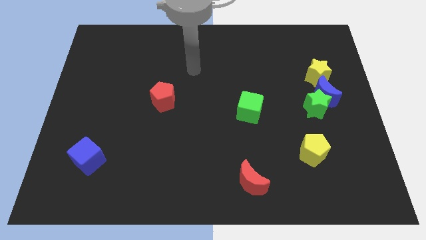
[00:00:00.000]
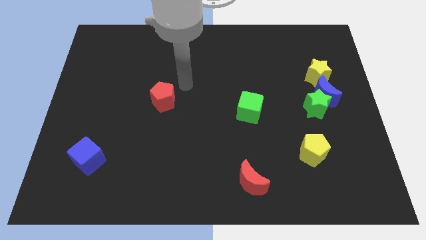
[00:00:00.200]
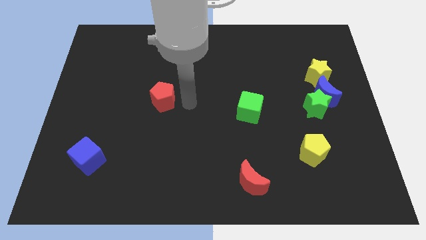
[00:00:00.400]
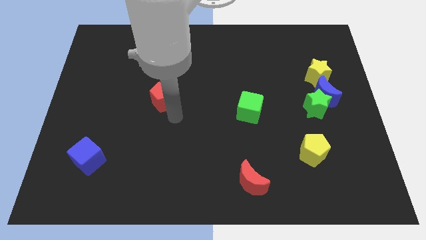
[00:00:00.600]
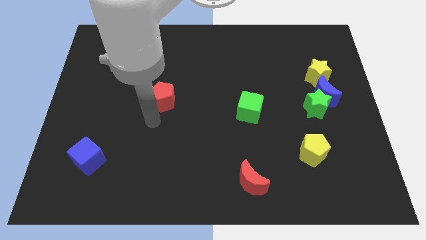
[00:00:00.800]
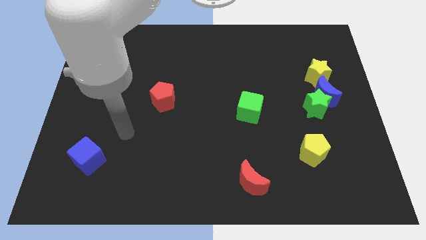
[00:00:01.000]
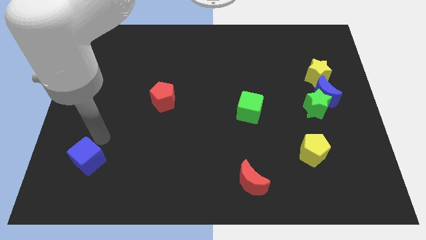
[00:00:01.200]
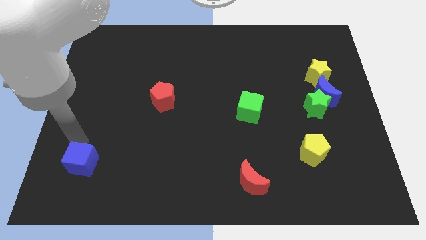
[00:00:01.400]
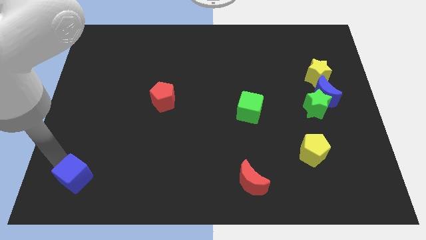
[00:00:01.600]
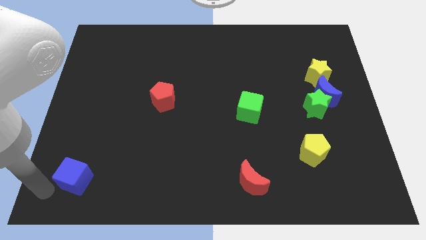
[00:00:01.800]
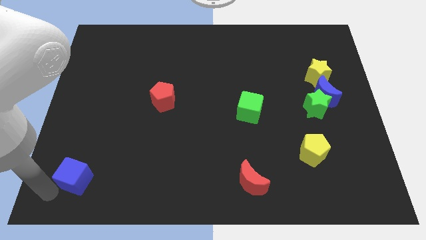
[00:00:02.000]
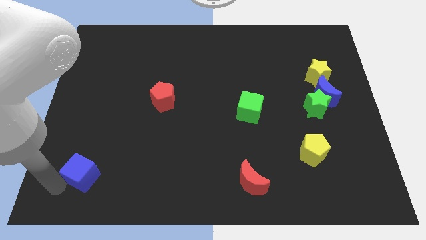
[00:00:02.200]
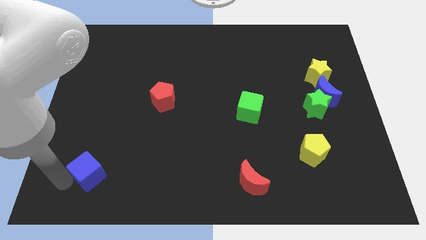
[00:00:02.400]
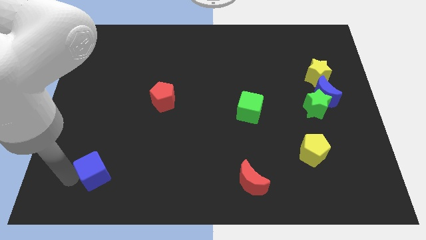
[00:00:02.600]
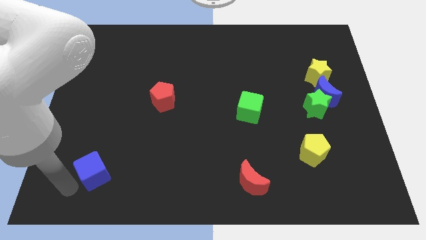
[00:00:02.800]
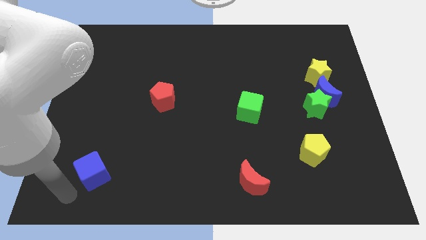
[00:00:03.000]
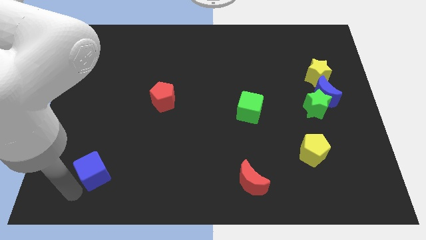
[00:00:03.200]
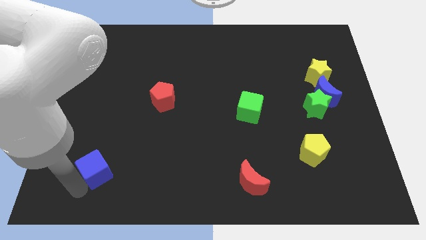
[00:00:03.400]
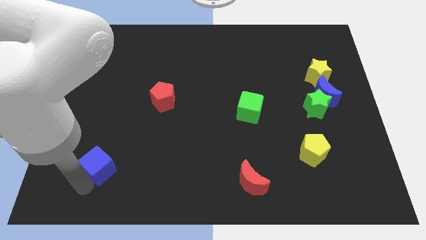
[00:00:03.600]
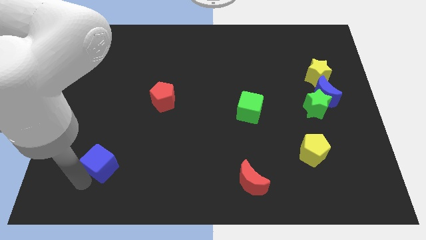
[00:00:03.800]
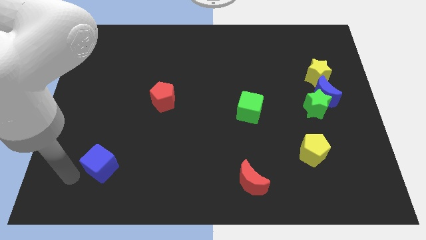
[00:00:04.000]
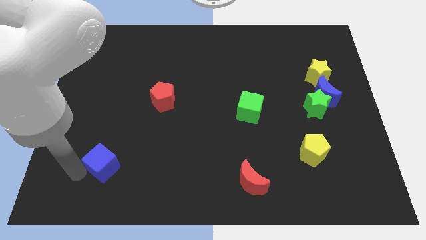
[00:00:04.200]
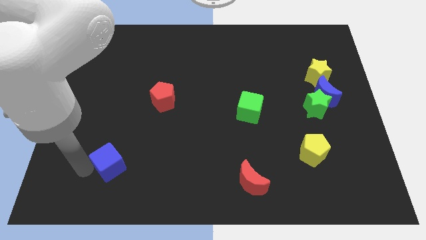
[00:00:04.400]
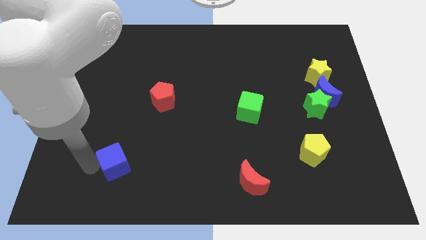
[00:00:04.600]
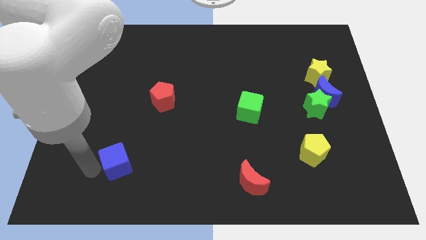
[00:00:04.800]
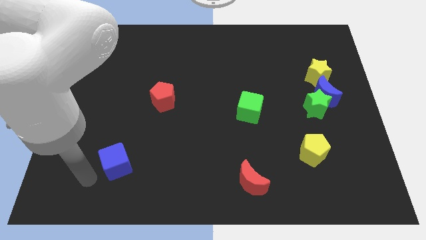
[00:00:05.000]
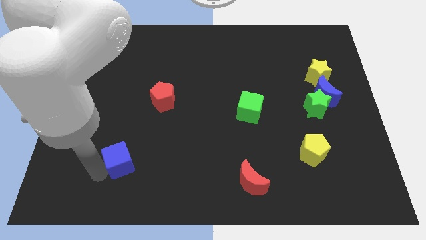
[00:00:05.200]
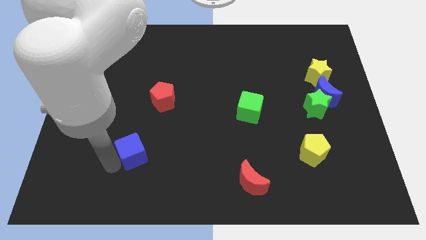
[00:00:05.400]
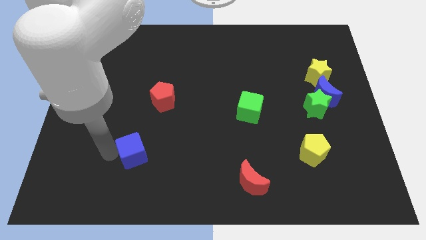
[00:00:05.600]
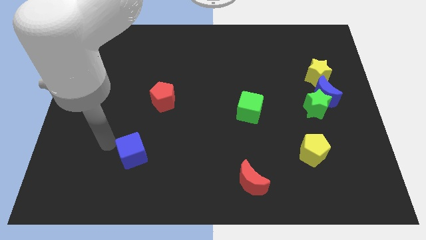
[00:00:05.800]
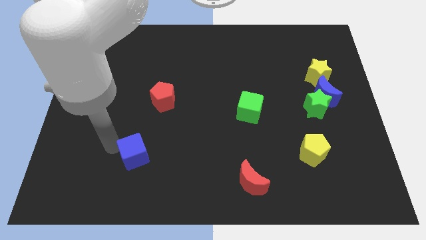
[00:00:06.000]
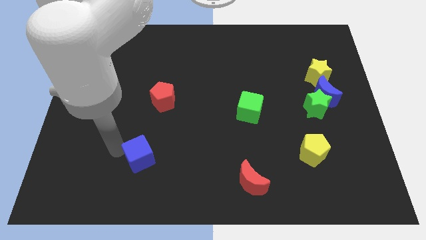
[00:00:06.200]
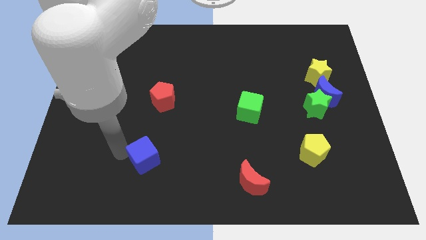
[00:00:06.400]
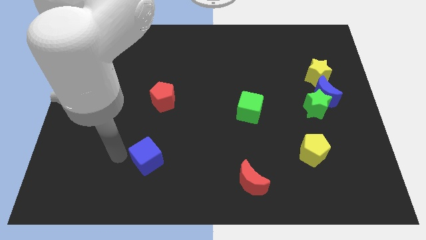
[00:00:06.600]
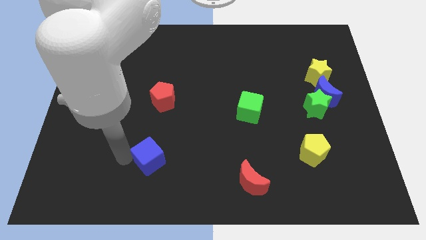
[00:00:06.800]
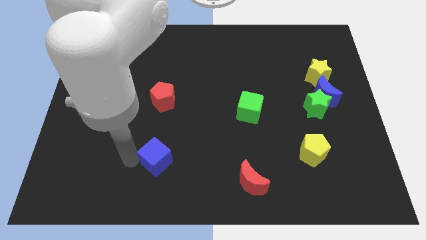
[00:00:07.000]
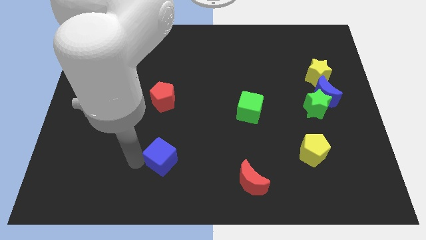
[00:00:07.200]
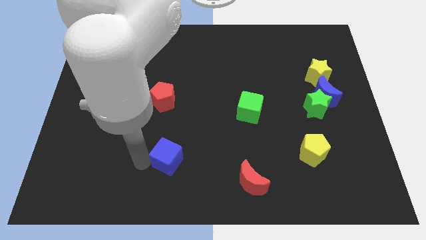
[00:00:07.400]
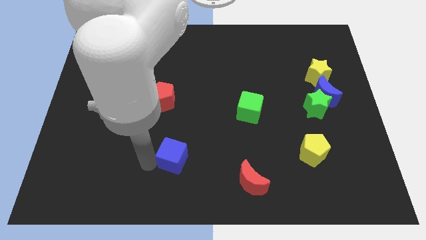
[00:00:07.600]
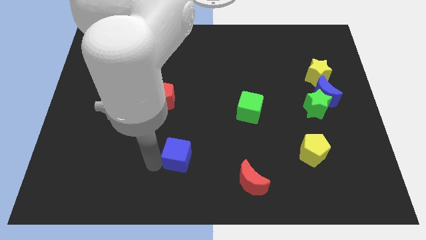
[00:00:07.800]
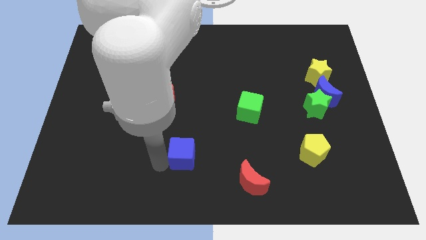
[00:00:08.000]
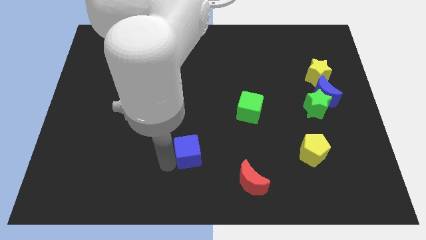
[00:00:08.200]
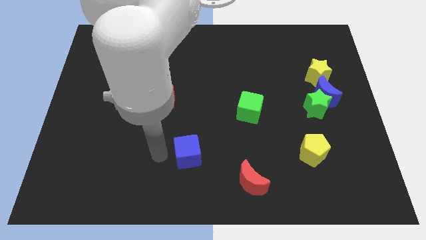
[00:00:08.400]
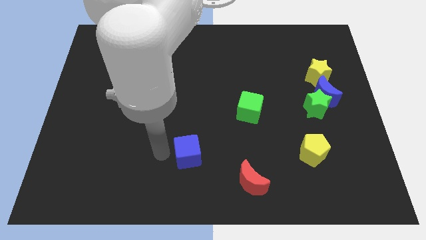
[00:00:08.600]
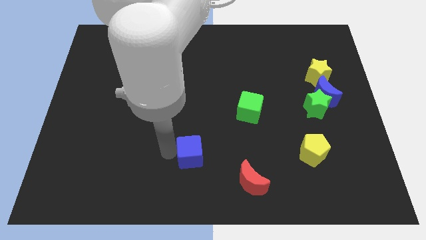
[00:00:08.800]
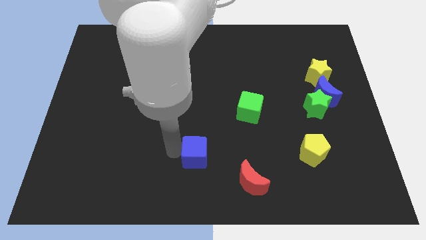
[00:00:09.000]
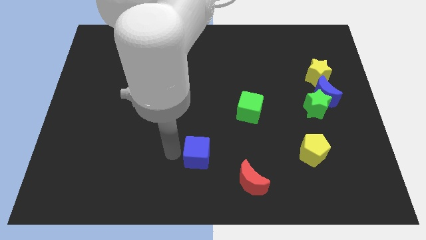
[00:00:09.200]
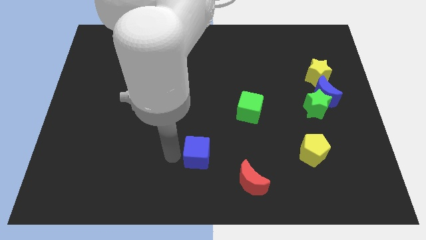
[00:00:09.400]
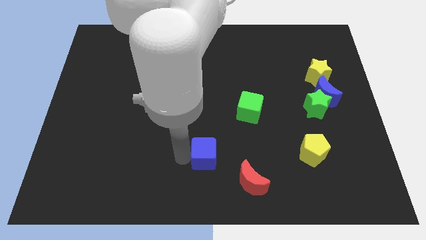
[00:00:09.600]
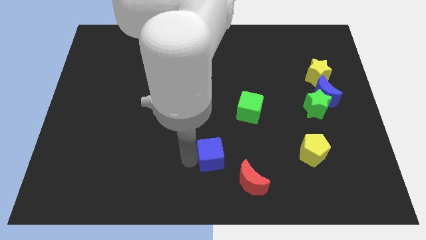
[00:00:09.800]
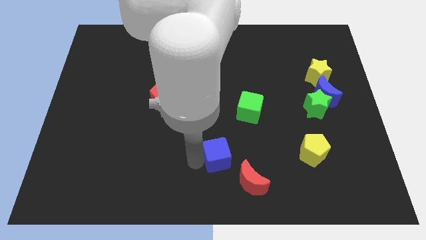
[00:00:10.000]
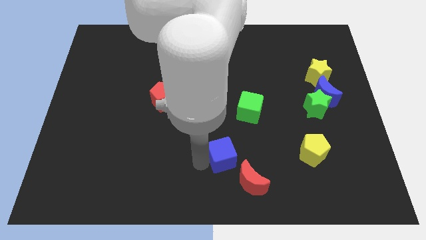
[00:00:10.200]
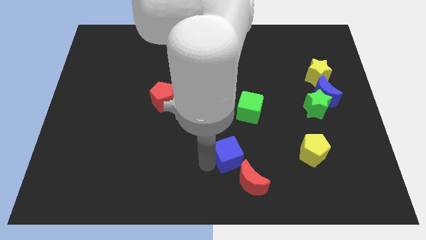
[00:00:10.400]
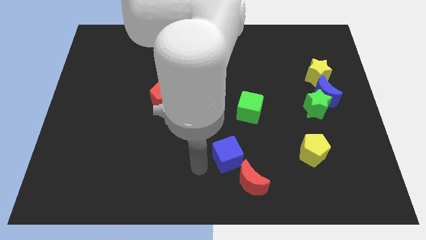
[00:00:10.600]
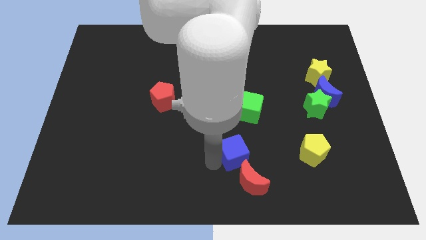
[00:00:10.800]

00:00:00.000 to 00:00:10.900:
push the blue cube to the bottom side of the green cube

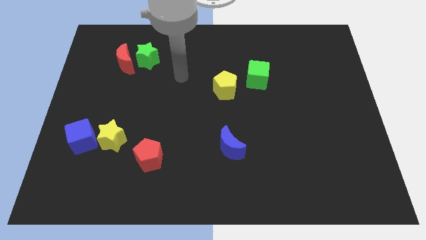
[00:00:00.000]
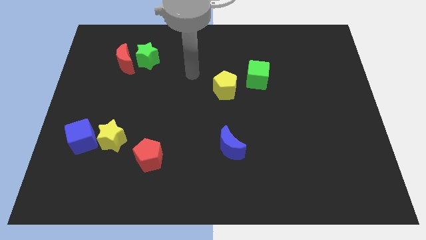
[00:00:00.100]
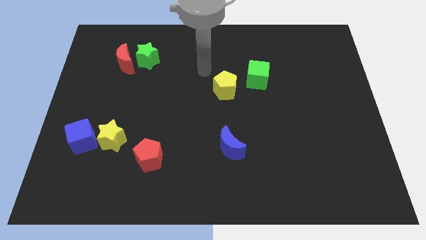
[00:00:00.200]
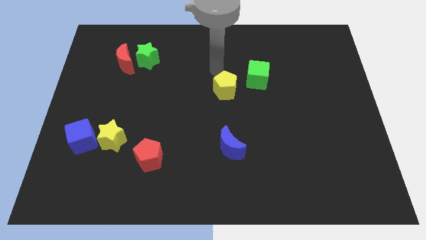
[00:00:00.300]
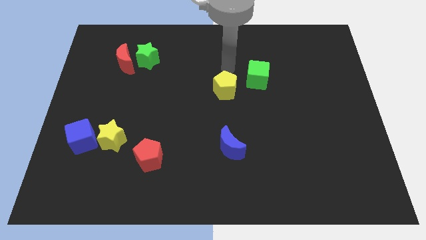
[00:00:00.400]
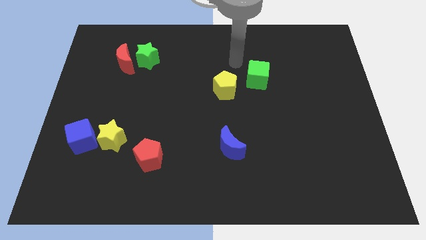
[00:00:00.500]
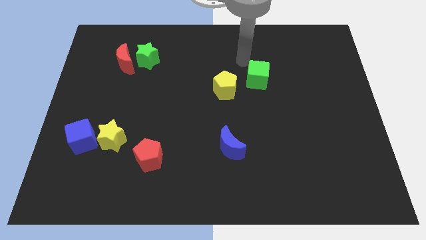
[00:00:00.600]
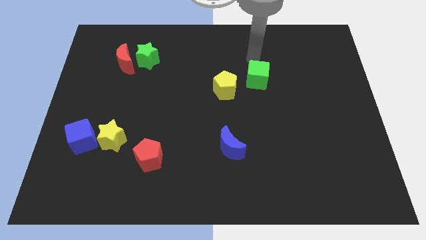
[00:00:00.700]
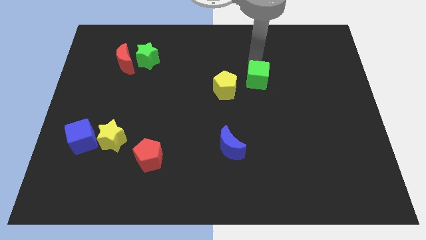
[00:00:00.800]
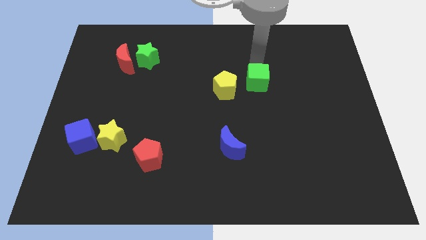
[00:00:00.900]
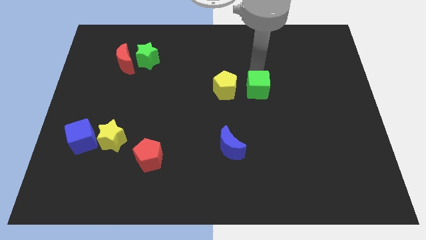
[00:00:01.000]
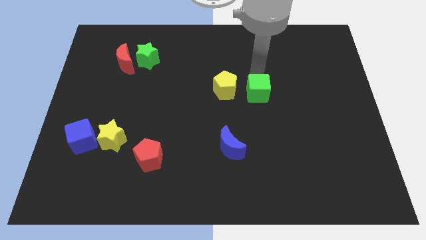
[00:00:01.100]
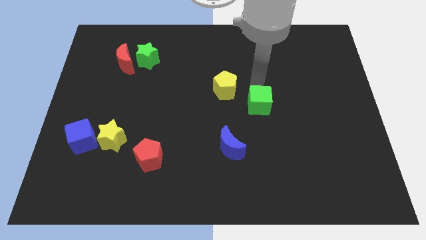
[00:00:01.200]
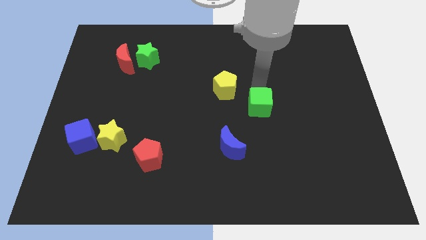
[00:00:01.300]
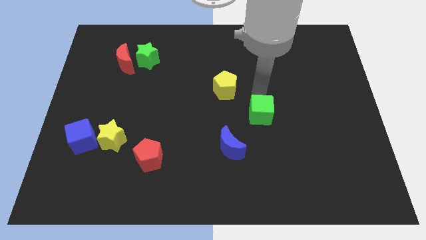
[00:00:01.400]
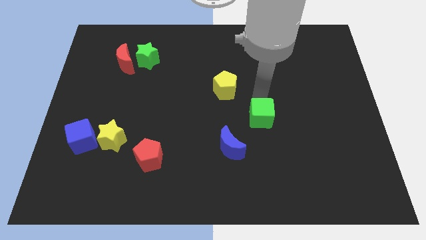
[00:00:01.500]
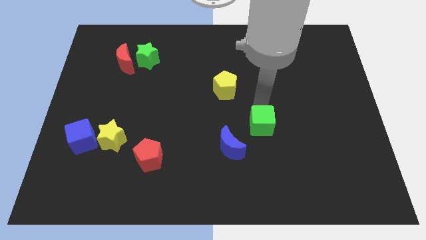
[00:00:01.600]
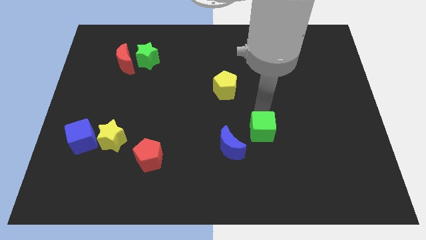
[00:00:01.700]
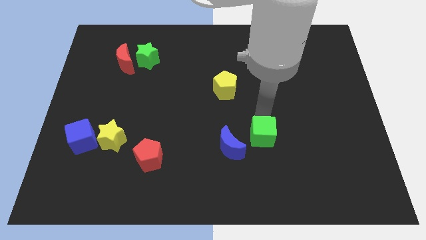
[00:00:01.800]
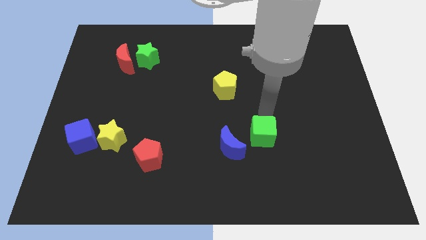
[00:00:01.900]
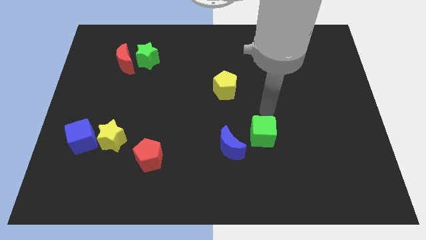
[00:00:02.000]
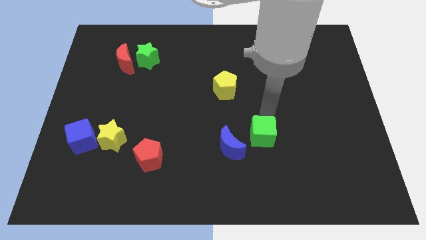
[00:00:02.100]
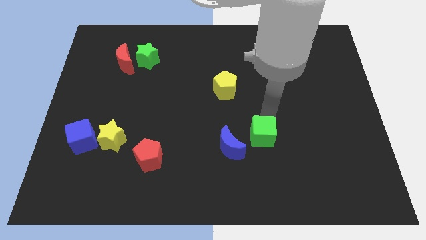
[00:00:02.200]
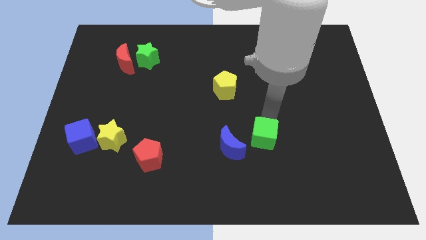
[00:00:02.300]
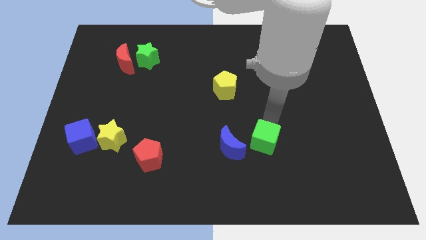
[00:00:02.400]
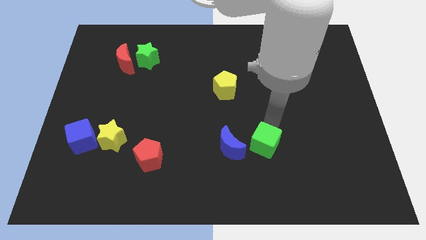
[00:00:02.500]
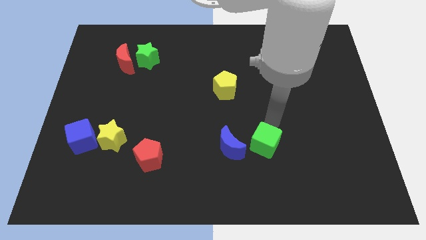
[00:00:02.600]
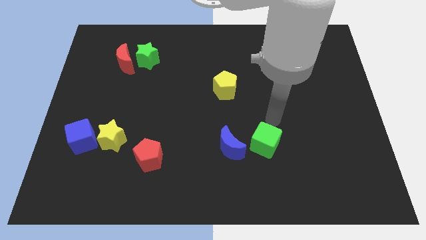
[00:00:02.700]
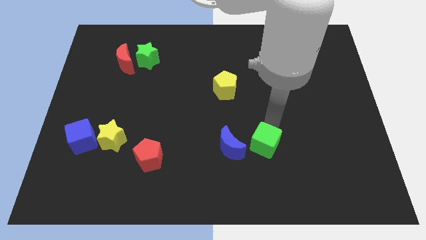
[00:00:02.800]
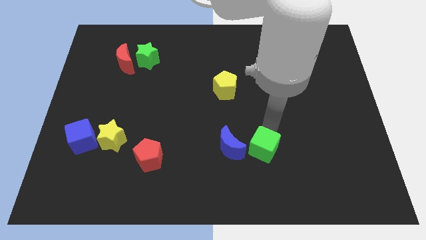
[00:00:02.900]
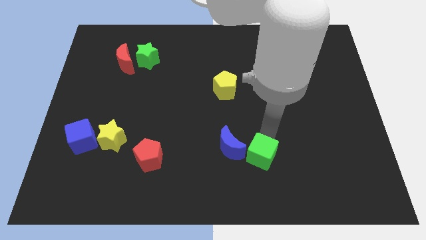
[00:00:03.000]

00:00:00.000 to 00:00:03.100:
push the green cube diagonally down and to the right of the blue moon
